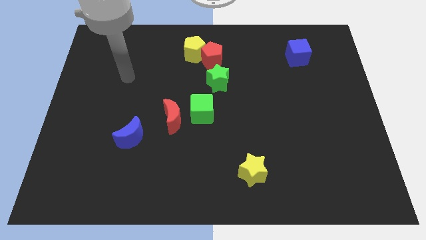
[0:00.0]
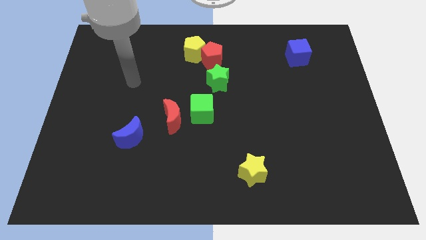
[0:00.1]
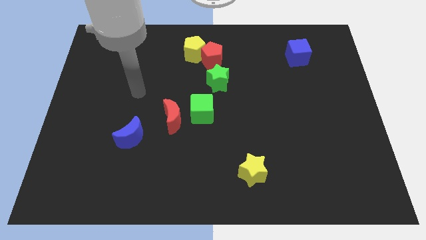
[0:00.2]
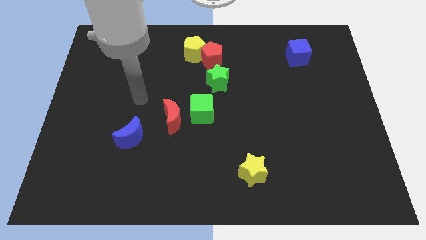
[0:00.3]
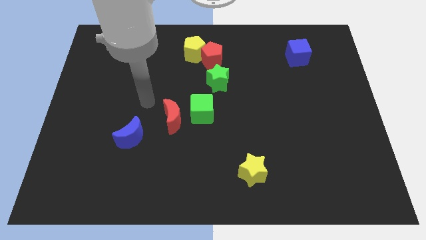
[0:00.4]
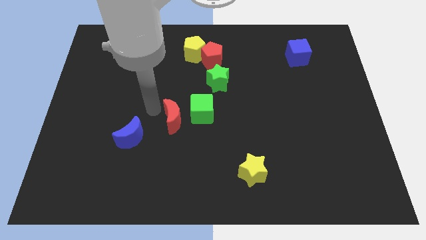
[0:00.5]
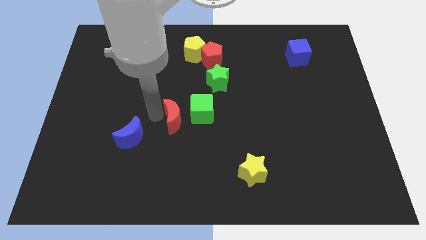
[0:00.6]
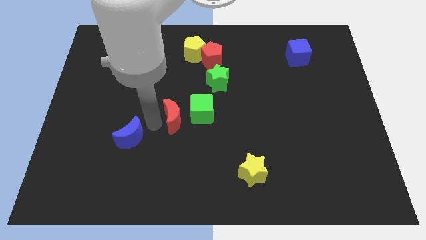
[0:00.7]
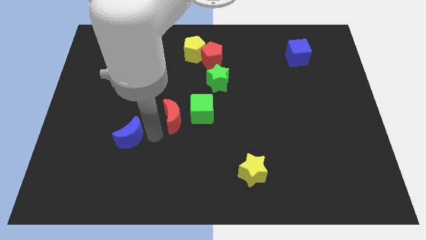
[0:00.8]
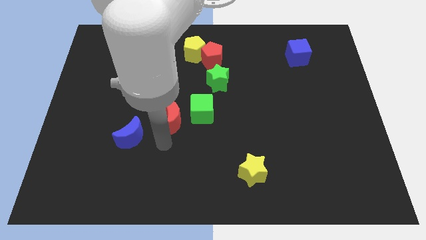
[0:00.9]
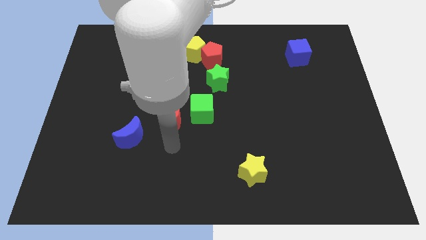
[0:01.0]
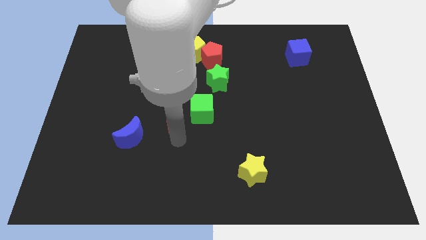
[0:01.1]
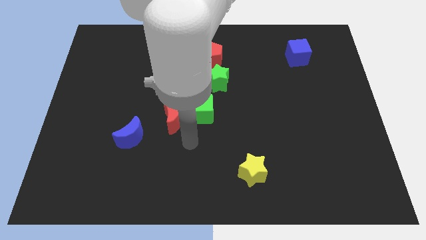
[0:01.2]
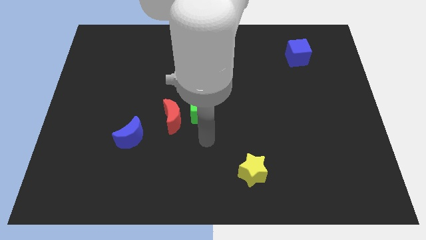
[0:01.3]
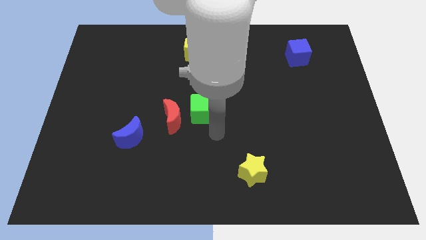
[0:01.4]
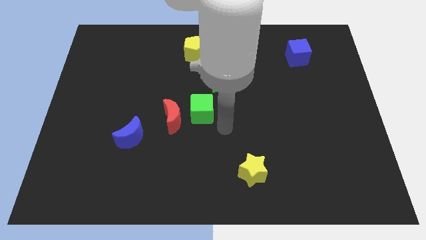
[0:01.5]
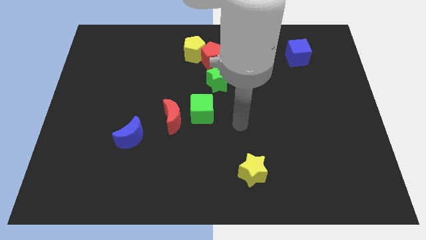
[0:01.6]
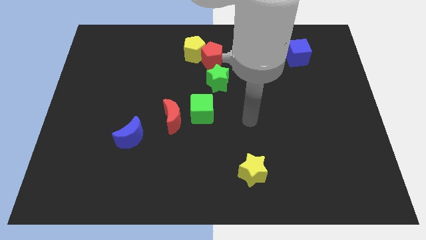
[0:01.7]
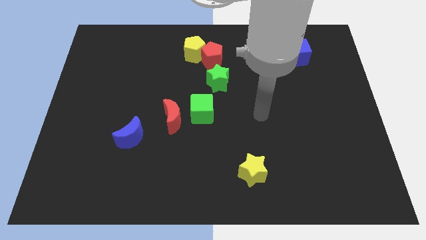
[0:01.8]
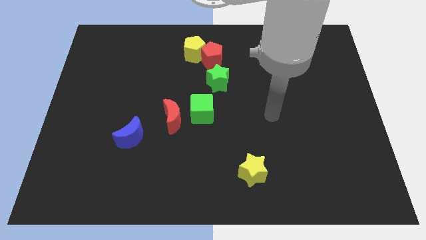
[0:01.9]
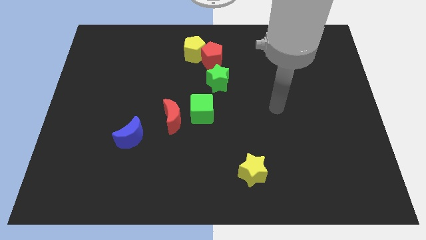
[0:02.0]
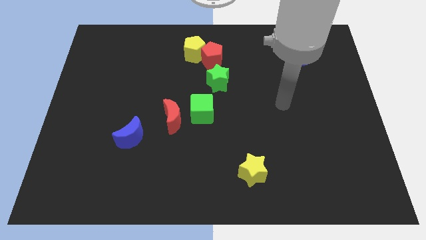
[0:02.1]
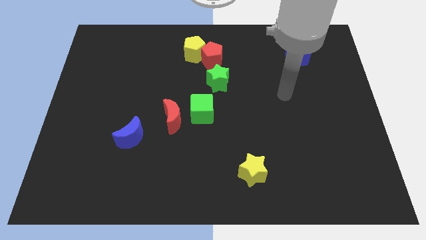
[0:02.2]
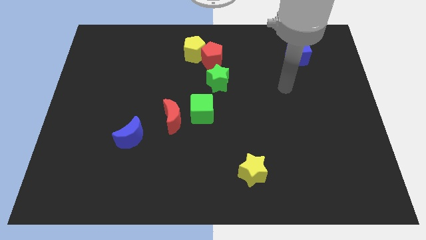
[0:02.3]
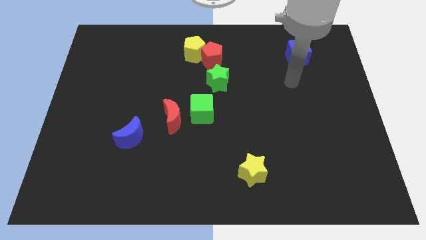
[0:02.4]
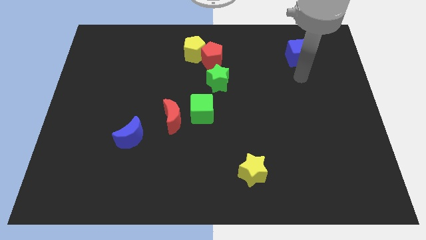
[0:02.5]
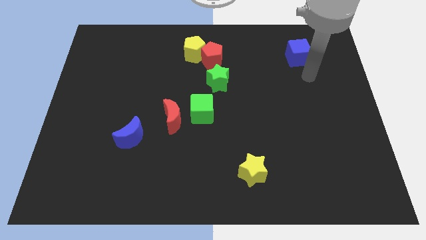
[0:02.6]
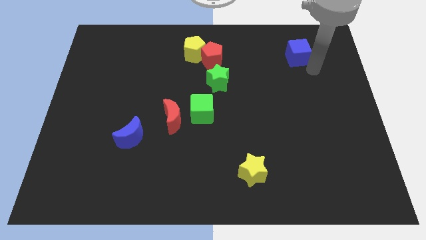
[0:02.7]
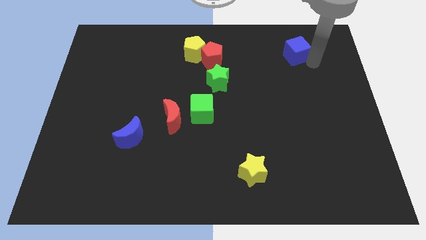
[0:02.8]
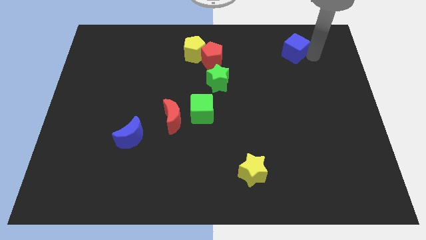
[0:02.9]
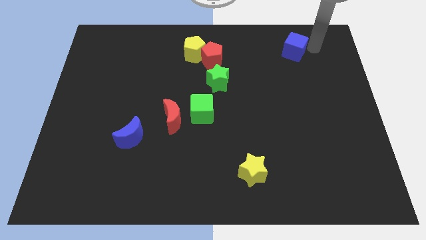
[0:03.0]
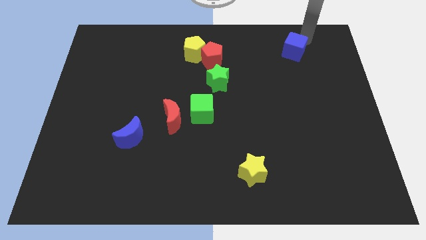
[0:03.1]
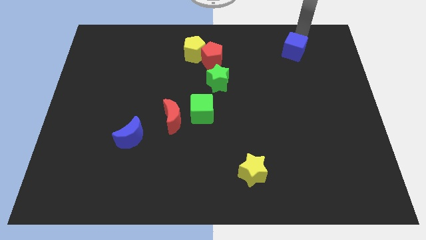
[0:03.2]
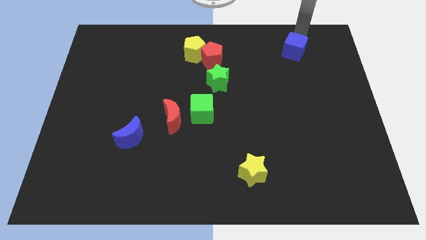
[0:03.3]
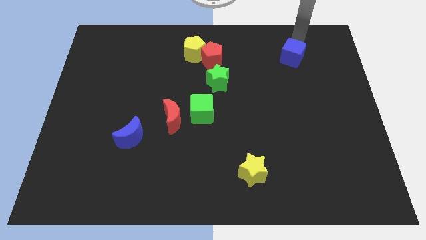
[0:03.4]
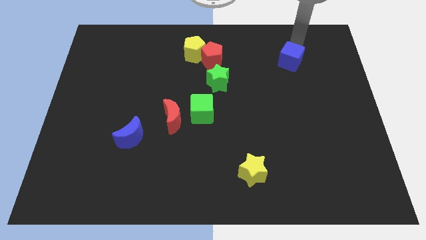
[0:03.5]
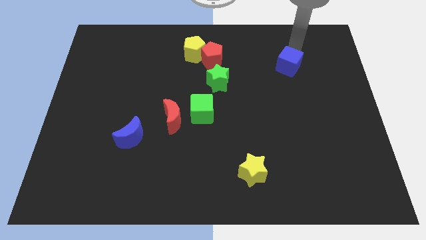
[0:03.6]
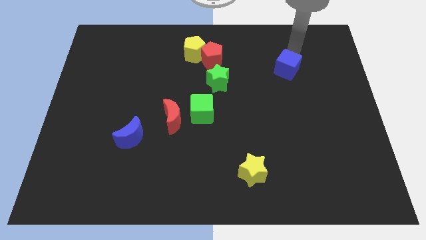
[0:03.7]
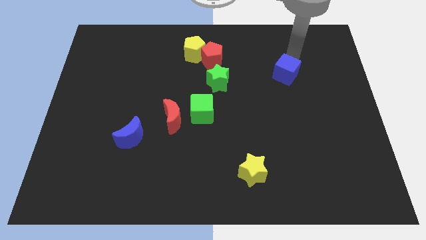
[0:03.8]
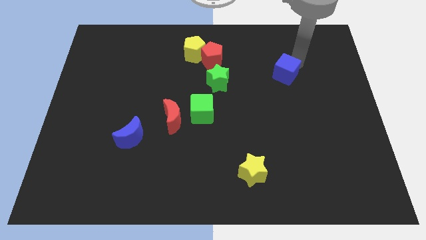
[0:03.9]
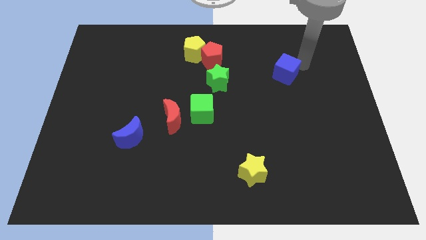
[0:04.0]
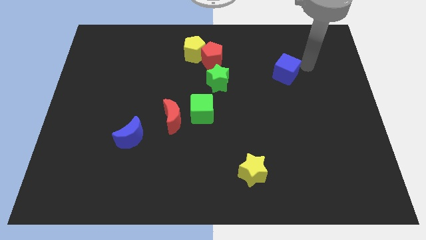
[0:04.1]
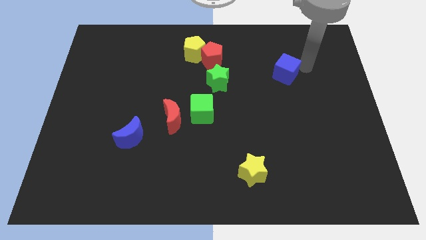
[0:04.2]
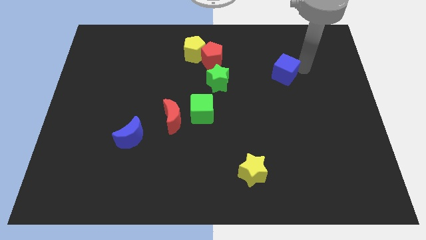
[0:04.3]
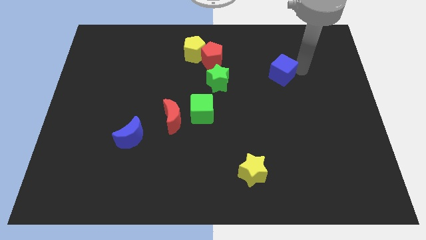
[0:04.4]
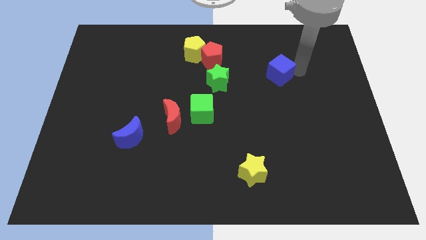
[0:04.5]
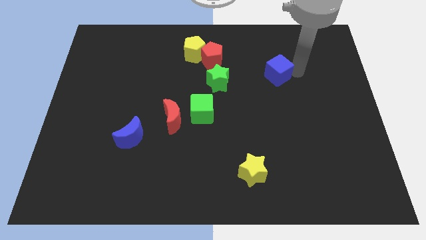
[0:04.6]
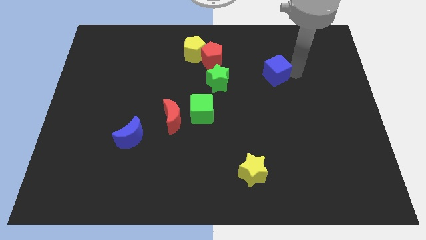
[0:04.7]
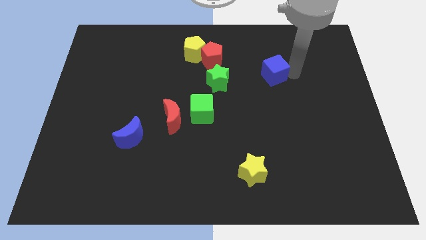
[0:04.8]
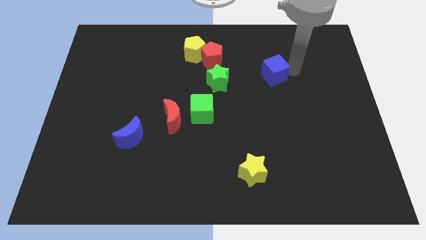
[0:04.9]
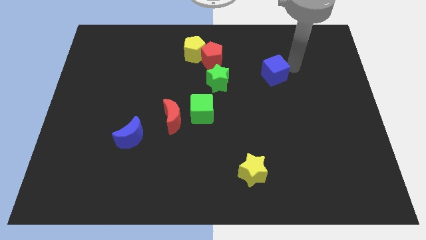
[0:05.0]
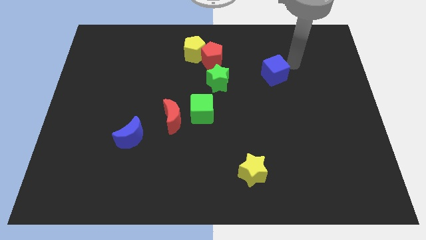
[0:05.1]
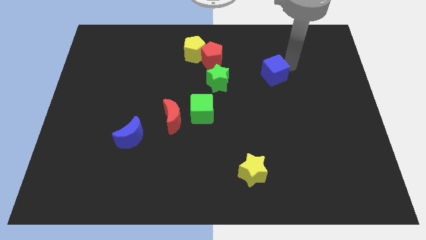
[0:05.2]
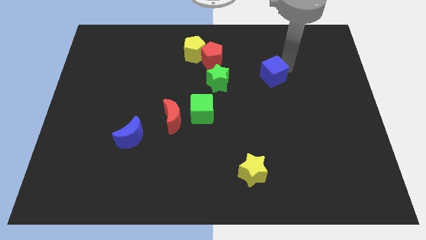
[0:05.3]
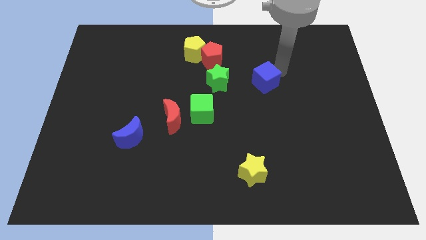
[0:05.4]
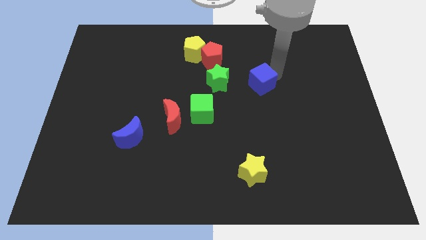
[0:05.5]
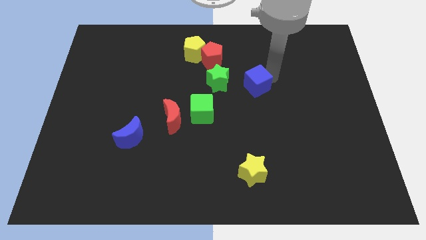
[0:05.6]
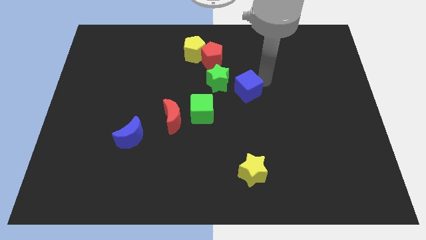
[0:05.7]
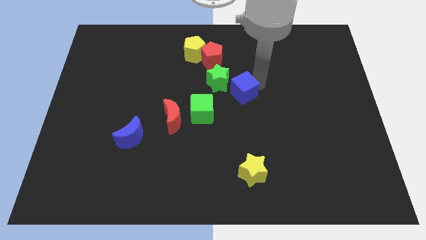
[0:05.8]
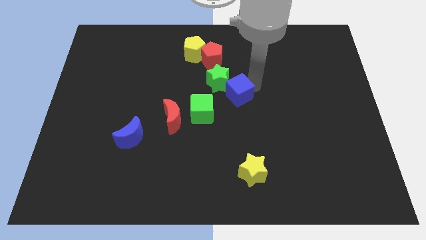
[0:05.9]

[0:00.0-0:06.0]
move the blue cube downwards and to the left diagonally

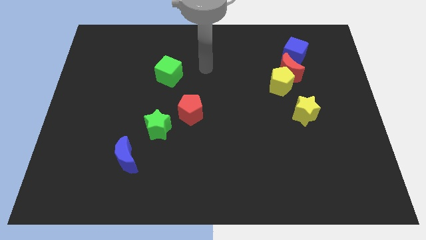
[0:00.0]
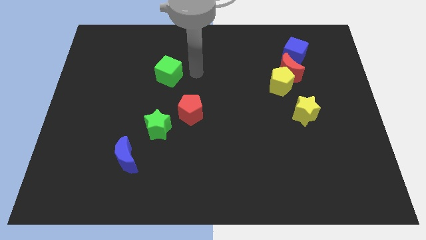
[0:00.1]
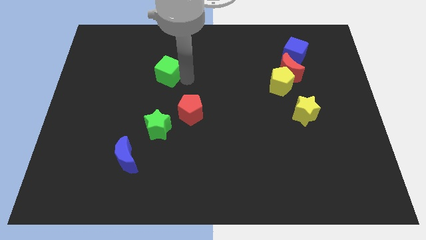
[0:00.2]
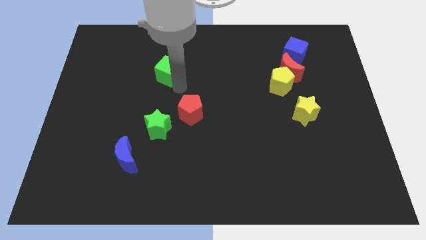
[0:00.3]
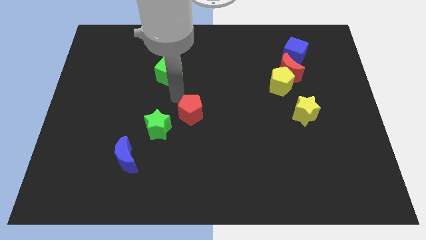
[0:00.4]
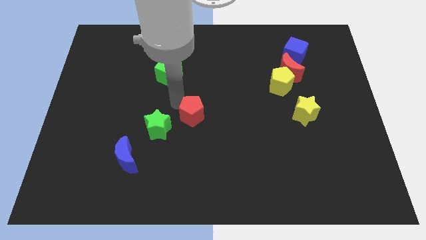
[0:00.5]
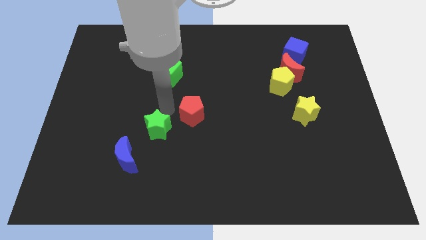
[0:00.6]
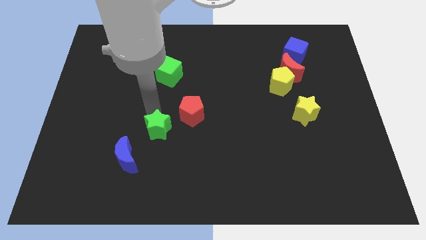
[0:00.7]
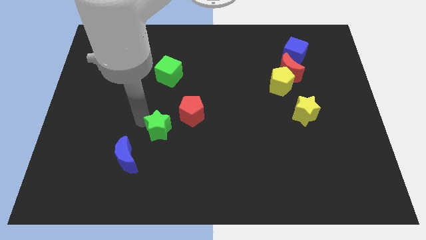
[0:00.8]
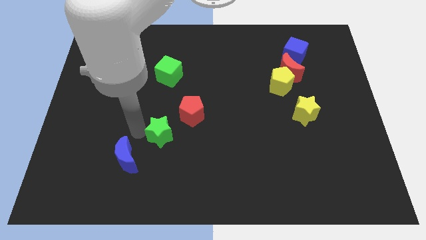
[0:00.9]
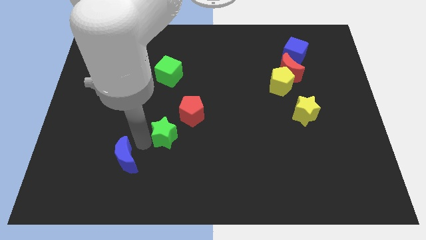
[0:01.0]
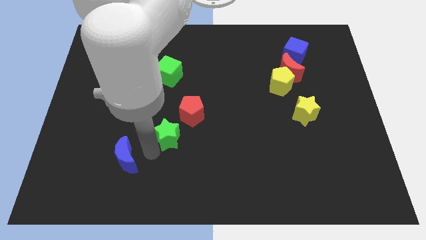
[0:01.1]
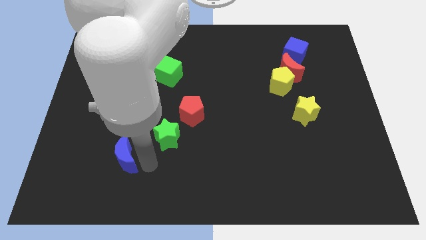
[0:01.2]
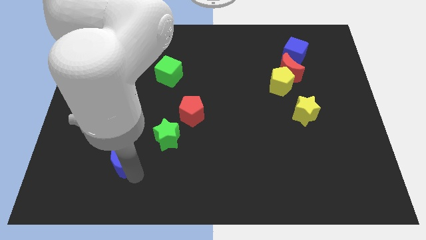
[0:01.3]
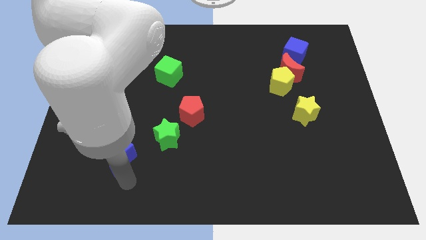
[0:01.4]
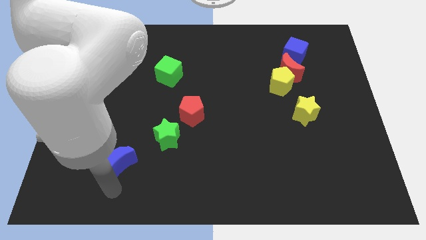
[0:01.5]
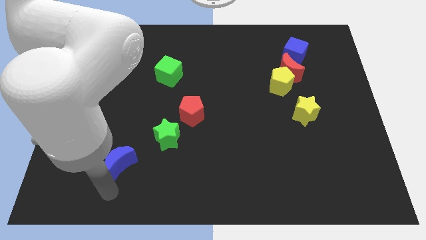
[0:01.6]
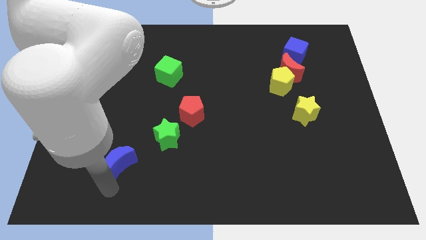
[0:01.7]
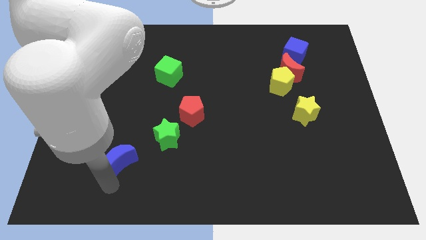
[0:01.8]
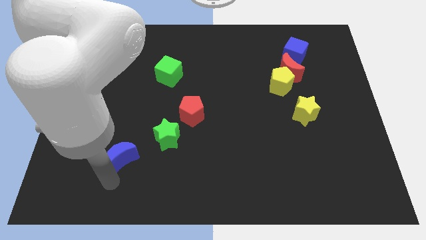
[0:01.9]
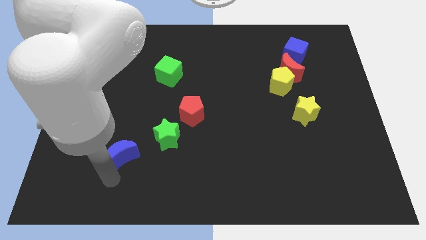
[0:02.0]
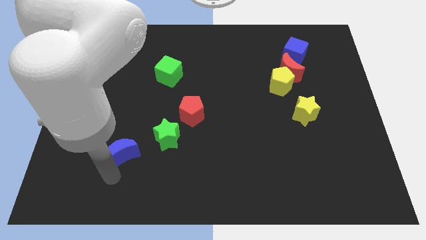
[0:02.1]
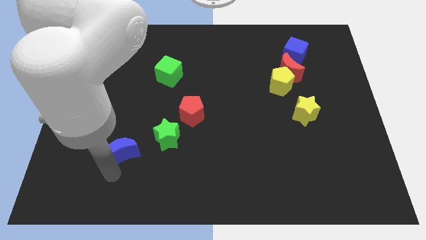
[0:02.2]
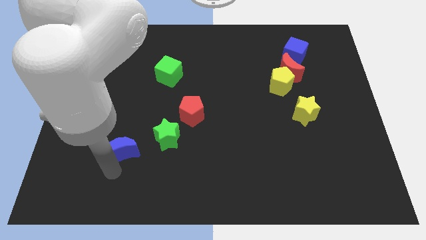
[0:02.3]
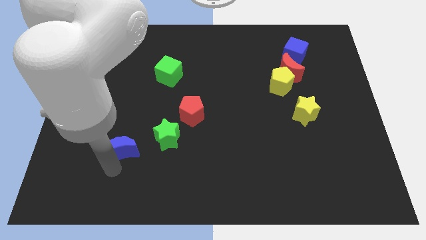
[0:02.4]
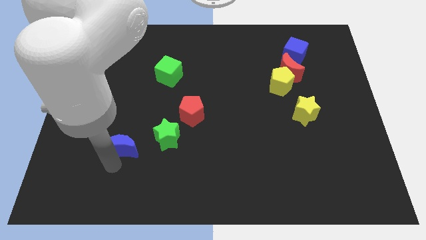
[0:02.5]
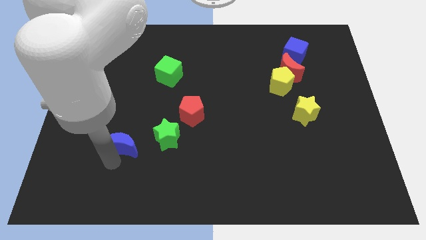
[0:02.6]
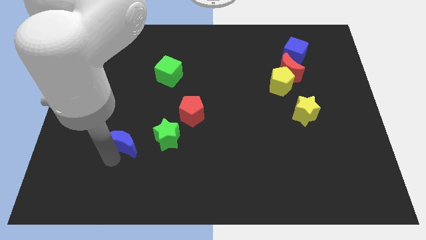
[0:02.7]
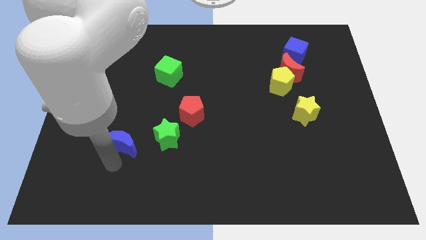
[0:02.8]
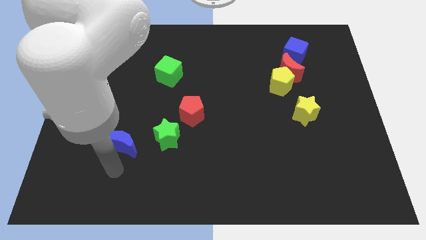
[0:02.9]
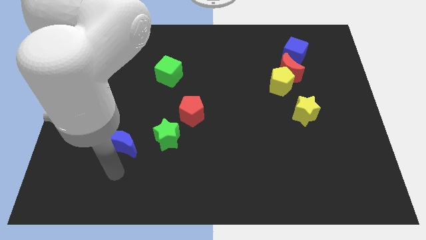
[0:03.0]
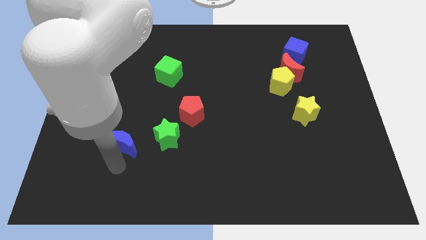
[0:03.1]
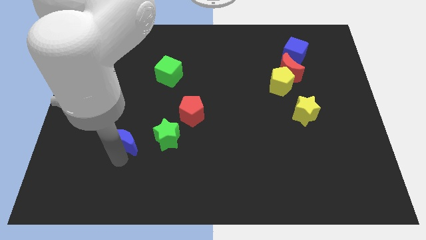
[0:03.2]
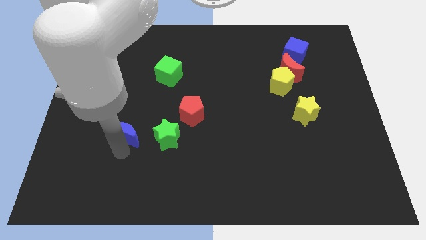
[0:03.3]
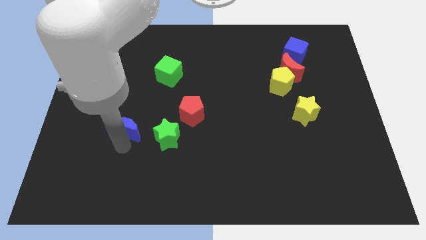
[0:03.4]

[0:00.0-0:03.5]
slide the blue moon up a little
